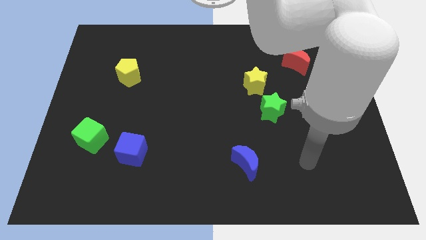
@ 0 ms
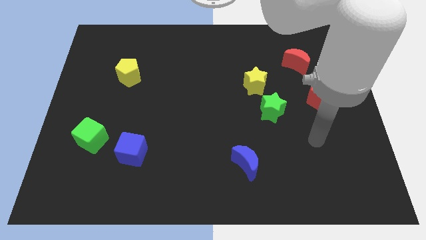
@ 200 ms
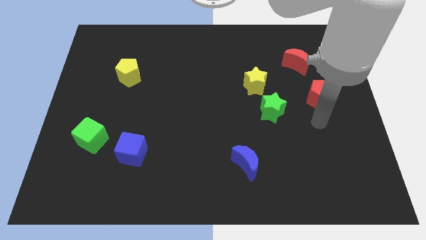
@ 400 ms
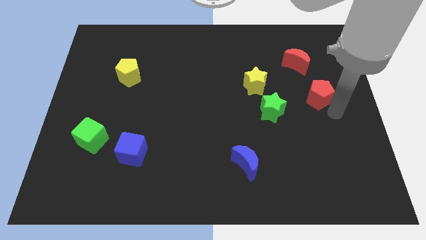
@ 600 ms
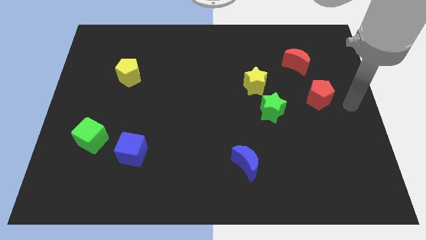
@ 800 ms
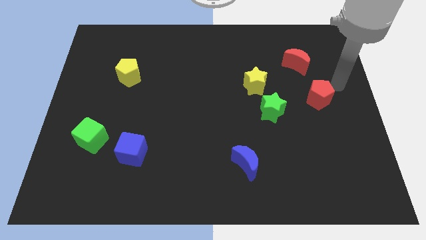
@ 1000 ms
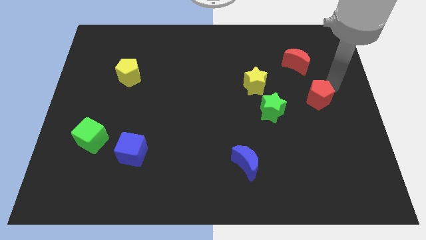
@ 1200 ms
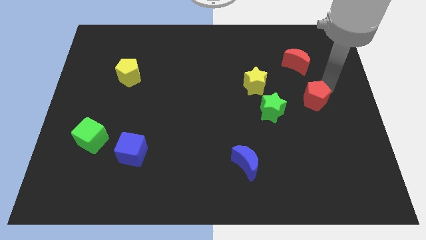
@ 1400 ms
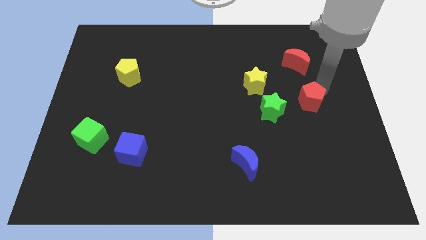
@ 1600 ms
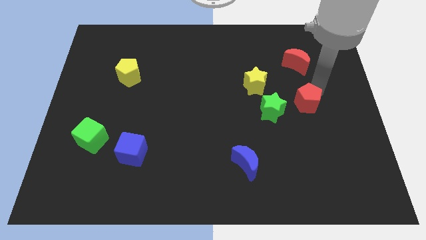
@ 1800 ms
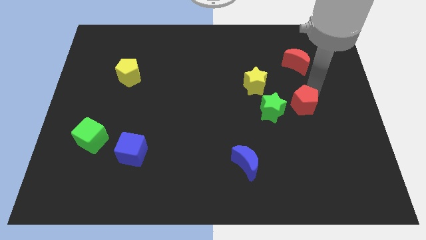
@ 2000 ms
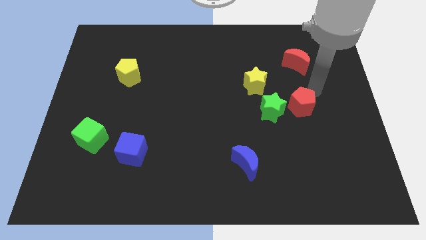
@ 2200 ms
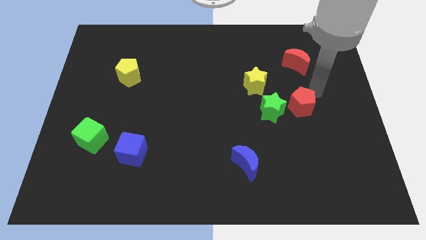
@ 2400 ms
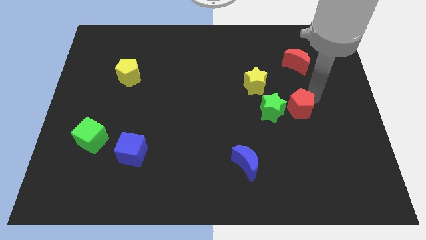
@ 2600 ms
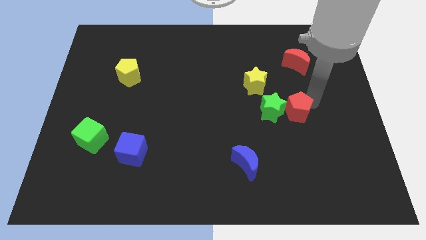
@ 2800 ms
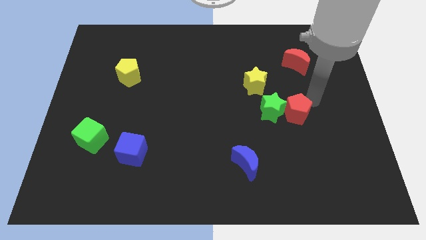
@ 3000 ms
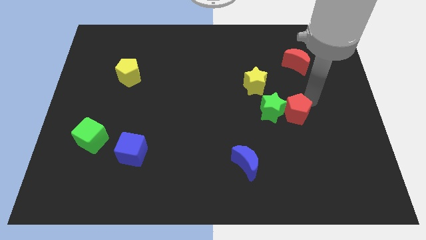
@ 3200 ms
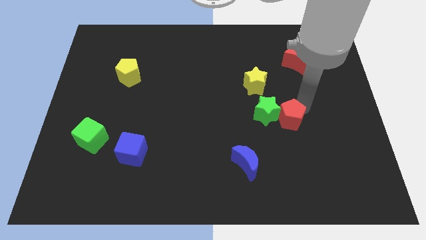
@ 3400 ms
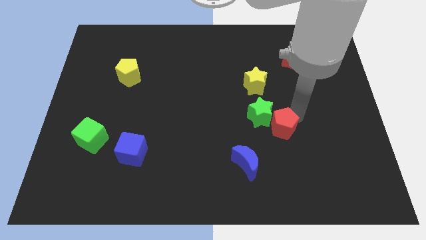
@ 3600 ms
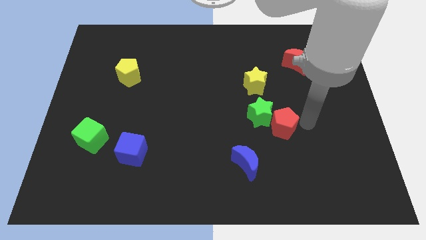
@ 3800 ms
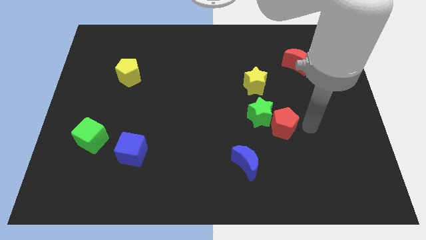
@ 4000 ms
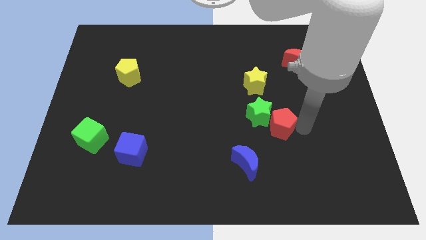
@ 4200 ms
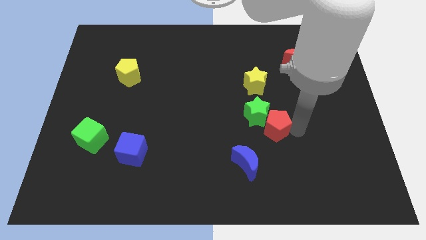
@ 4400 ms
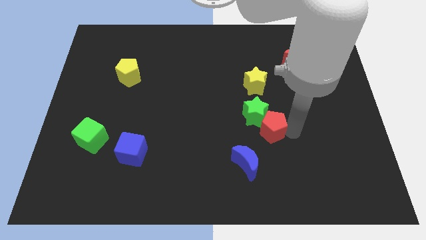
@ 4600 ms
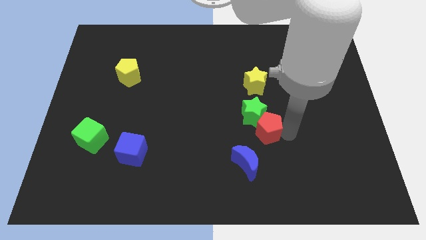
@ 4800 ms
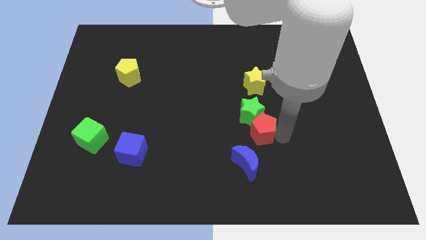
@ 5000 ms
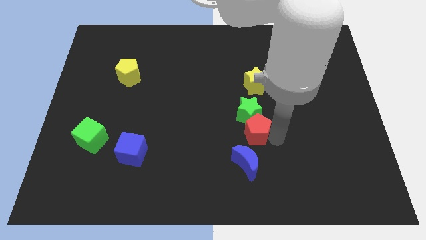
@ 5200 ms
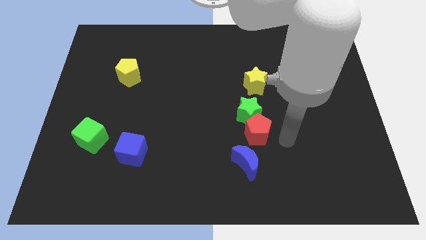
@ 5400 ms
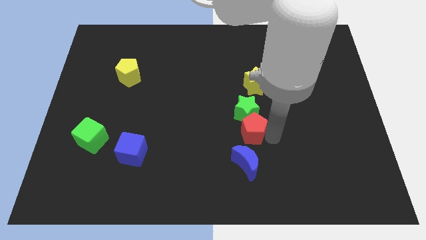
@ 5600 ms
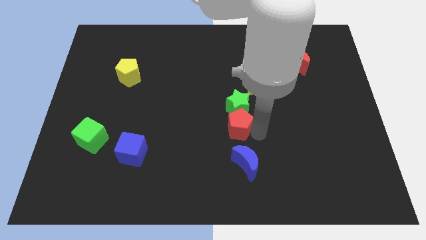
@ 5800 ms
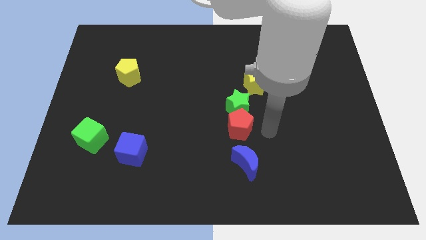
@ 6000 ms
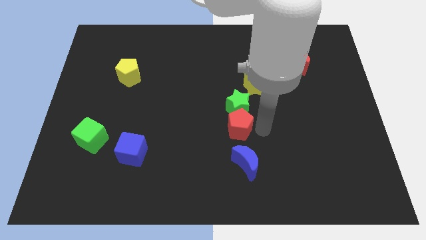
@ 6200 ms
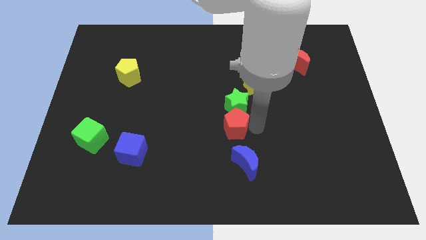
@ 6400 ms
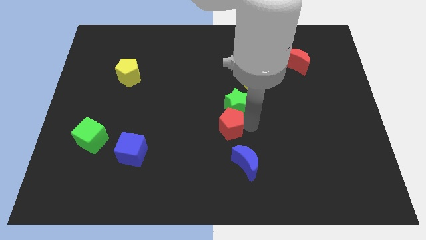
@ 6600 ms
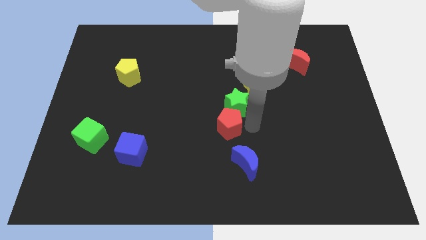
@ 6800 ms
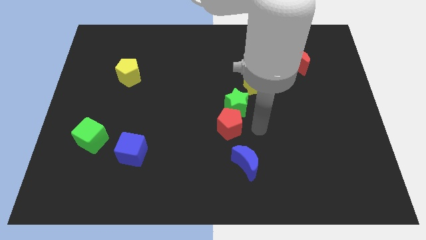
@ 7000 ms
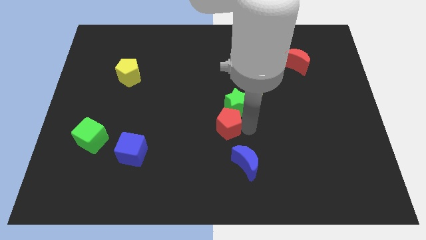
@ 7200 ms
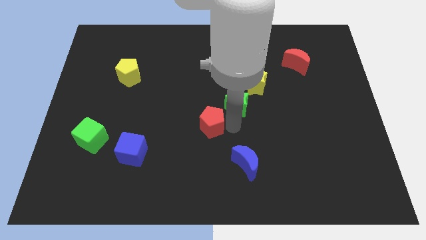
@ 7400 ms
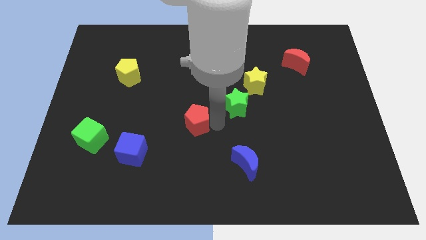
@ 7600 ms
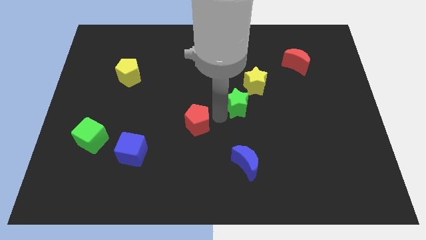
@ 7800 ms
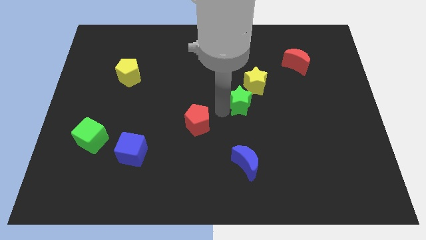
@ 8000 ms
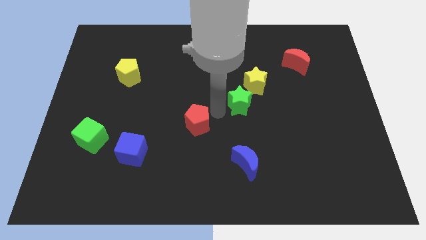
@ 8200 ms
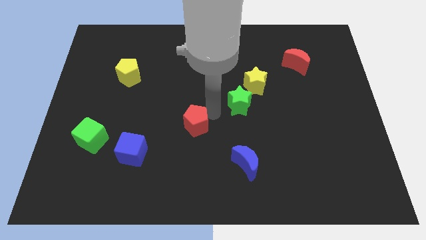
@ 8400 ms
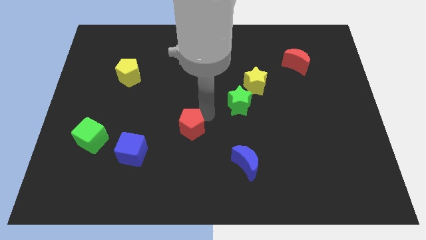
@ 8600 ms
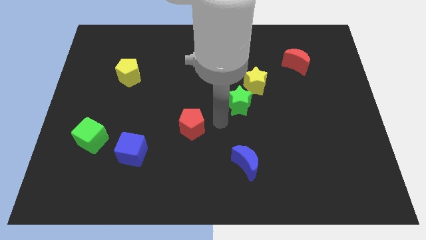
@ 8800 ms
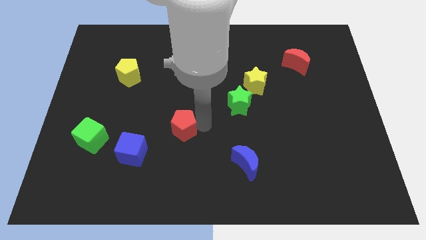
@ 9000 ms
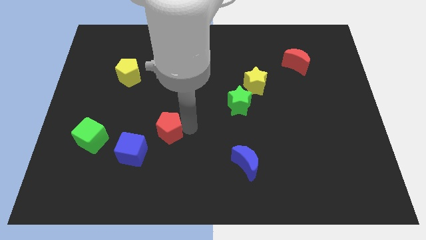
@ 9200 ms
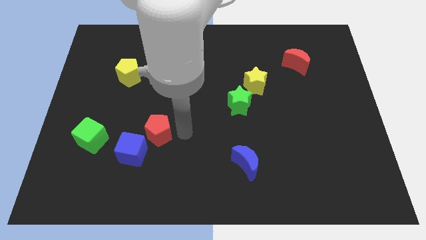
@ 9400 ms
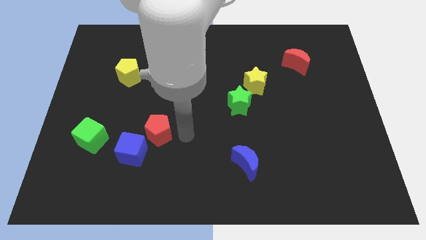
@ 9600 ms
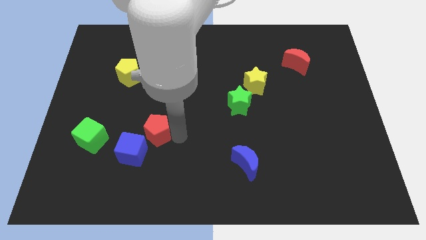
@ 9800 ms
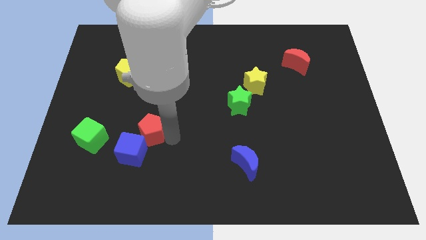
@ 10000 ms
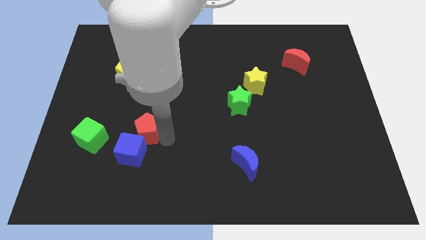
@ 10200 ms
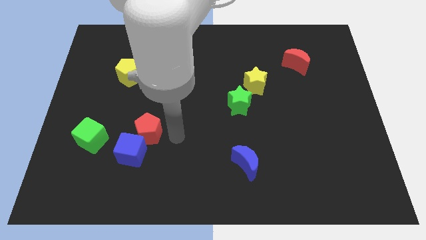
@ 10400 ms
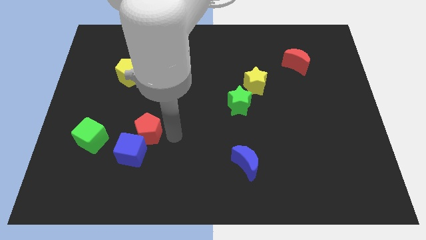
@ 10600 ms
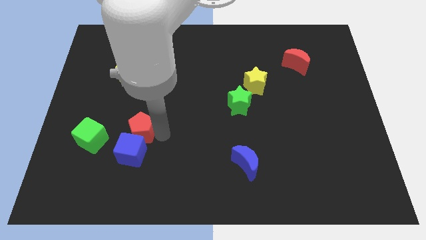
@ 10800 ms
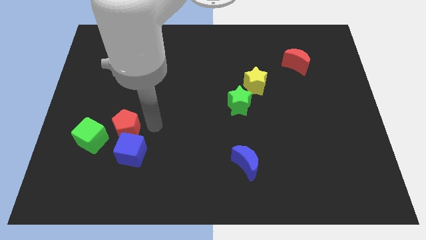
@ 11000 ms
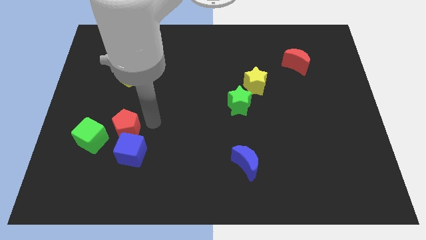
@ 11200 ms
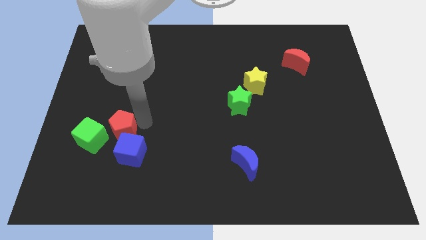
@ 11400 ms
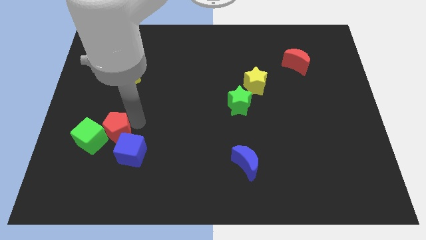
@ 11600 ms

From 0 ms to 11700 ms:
put the red pentagon to the green cube

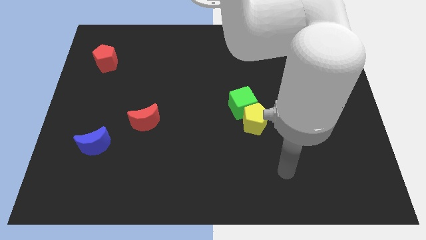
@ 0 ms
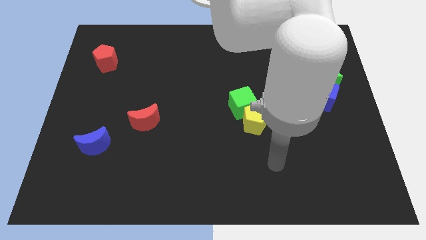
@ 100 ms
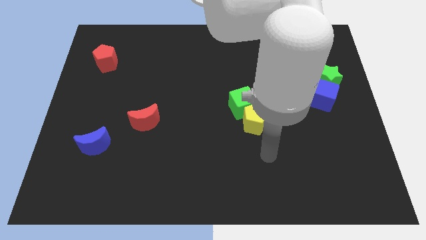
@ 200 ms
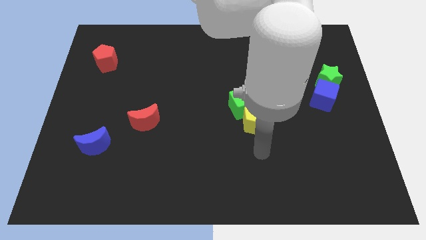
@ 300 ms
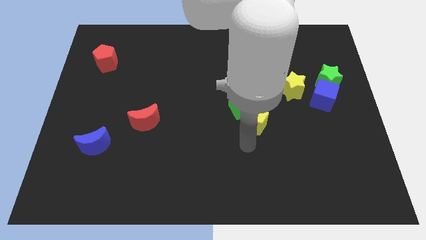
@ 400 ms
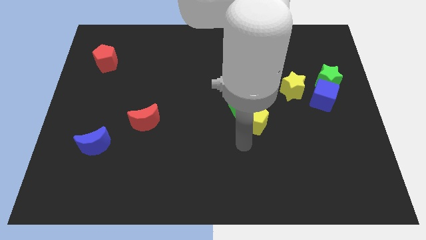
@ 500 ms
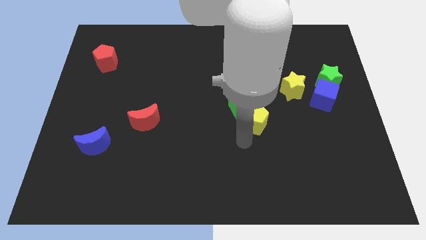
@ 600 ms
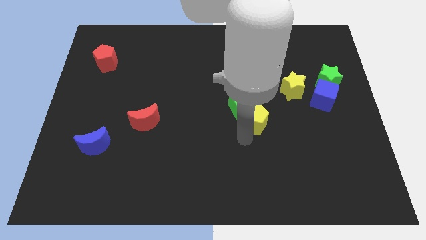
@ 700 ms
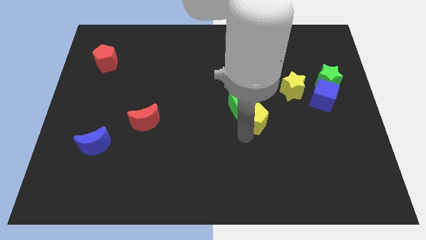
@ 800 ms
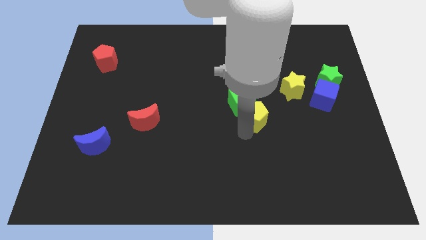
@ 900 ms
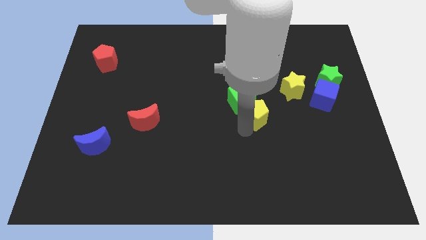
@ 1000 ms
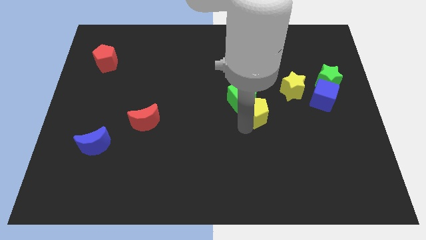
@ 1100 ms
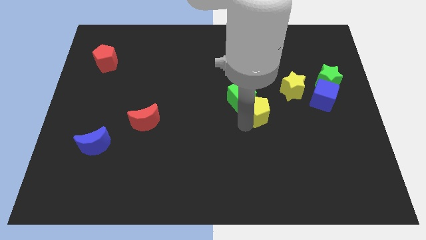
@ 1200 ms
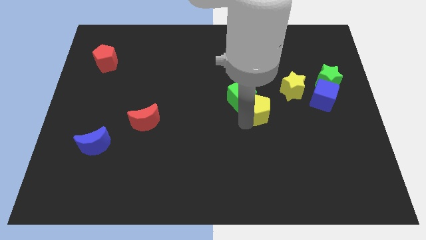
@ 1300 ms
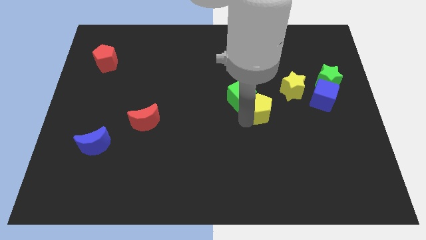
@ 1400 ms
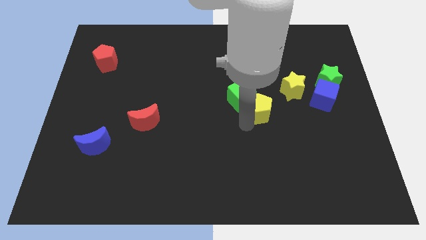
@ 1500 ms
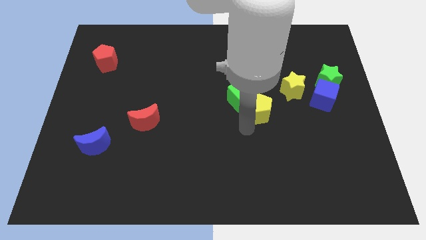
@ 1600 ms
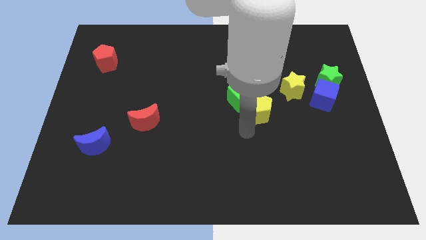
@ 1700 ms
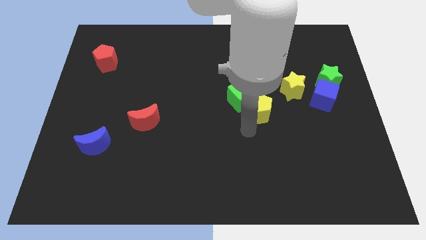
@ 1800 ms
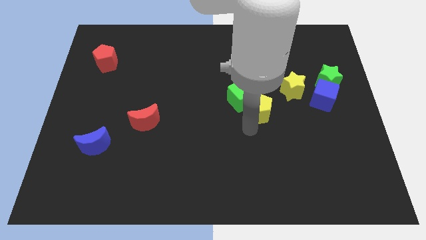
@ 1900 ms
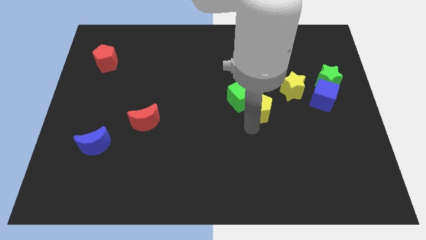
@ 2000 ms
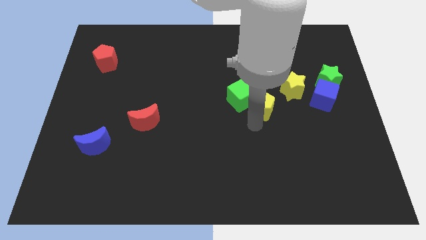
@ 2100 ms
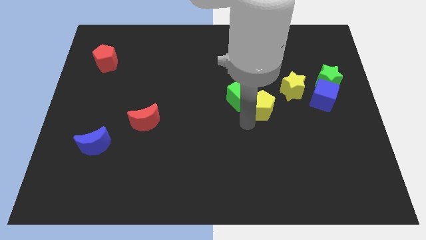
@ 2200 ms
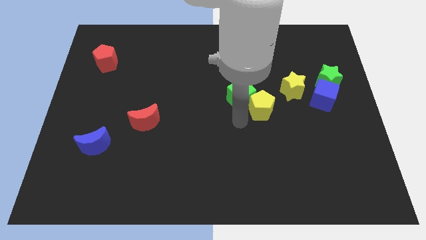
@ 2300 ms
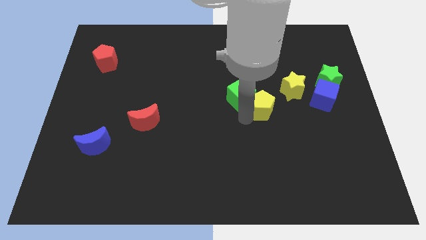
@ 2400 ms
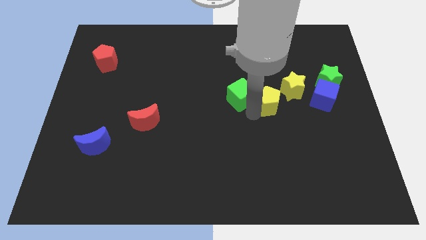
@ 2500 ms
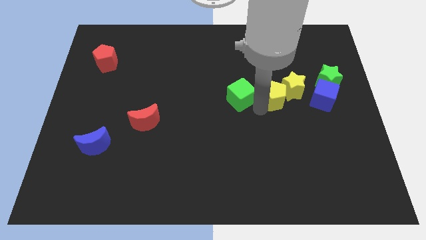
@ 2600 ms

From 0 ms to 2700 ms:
slide the yellow pentagon close to the yellow star
